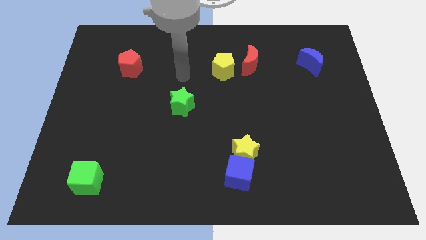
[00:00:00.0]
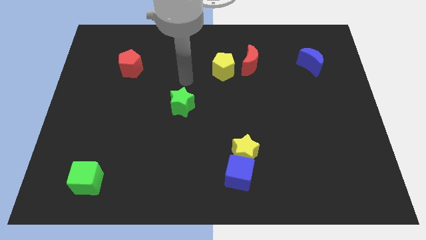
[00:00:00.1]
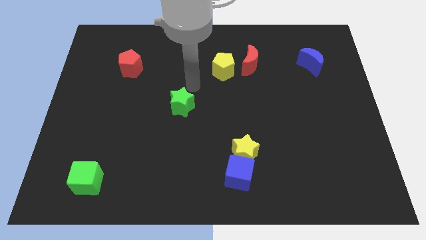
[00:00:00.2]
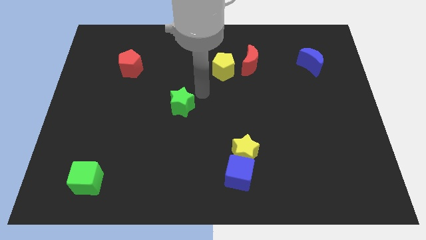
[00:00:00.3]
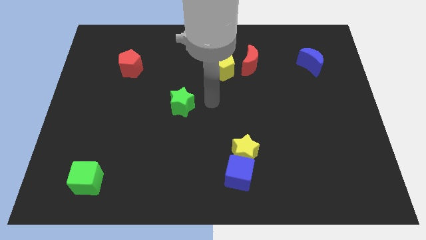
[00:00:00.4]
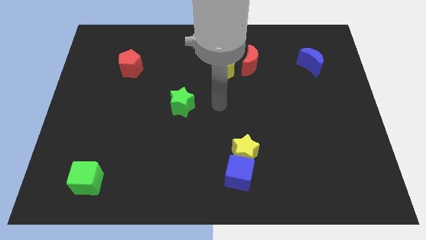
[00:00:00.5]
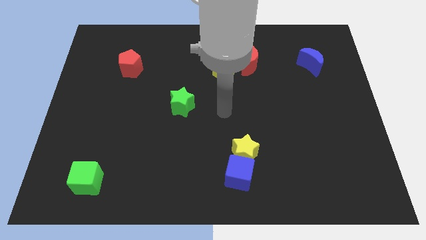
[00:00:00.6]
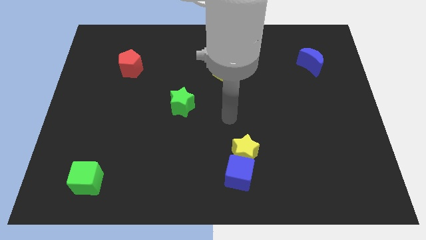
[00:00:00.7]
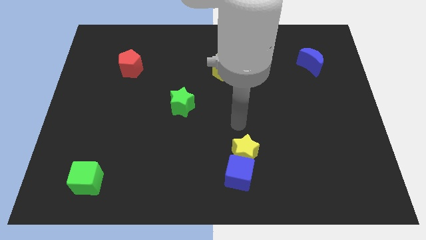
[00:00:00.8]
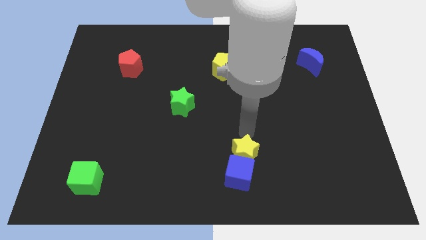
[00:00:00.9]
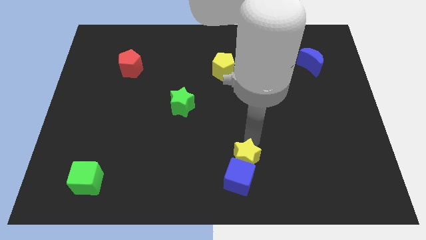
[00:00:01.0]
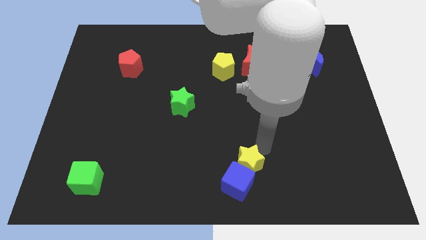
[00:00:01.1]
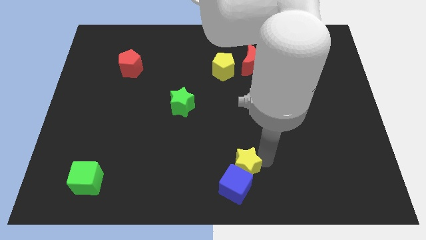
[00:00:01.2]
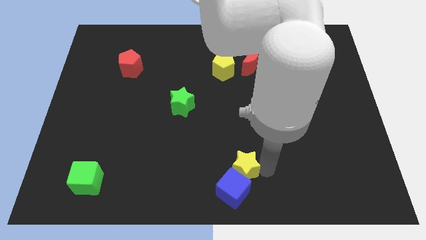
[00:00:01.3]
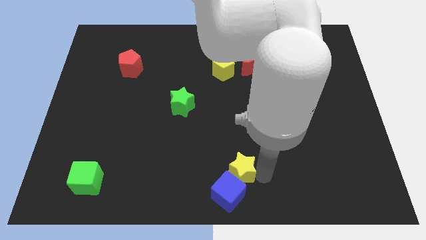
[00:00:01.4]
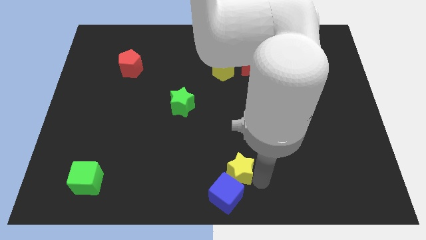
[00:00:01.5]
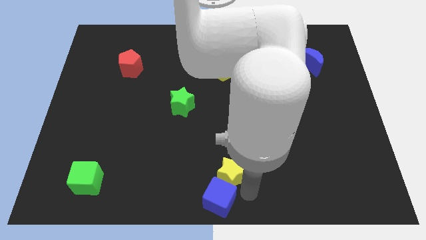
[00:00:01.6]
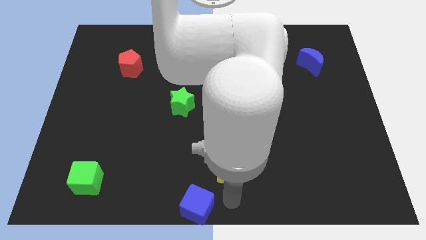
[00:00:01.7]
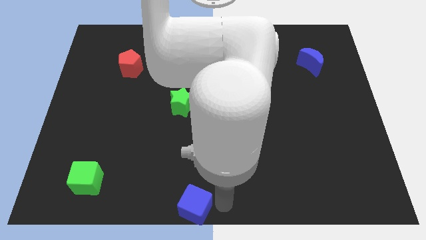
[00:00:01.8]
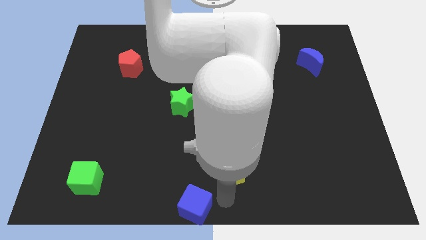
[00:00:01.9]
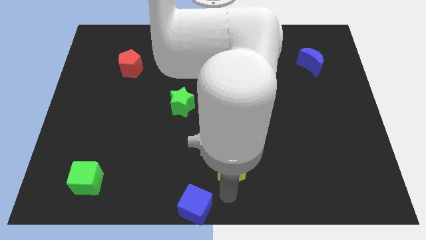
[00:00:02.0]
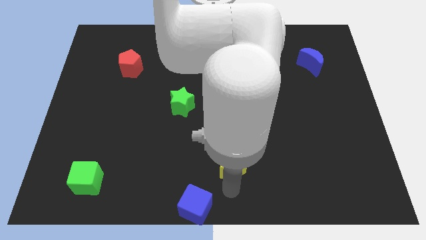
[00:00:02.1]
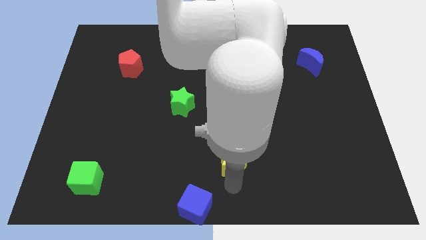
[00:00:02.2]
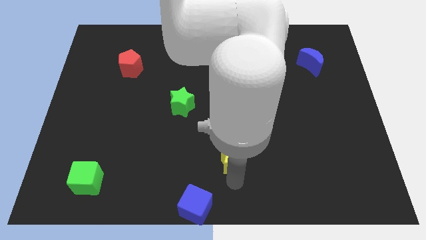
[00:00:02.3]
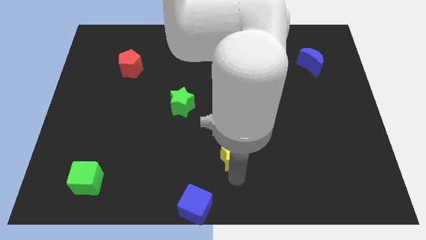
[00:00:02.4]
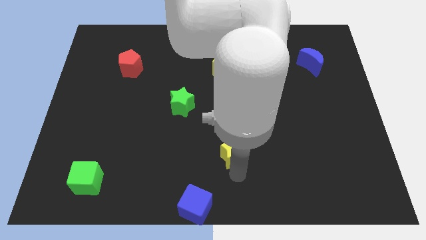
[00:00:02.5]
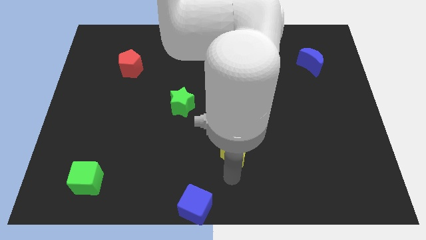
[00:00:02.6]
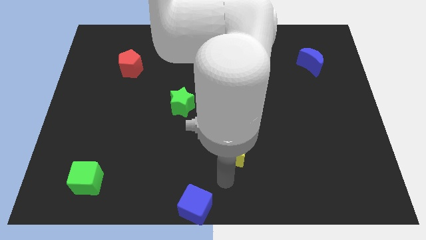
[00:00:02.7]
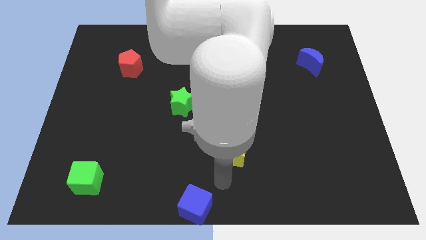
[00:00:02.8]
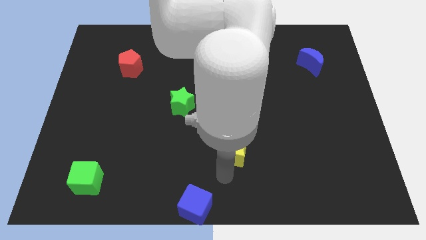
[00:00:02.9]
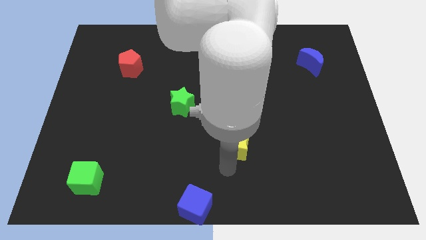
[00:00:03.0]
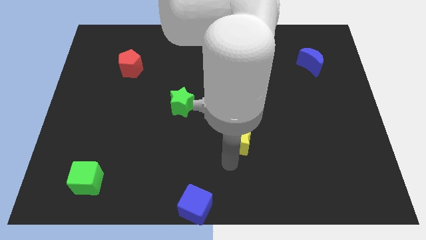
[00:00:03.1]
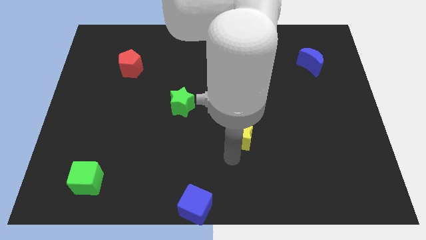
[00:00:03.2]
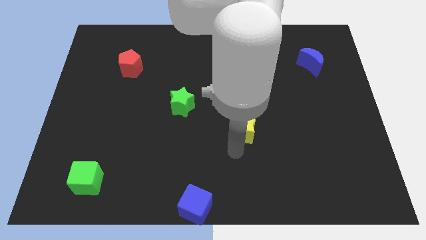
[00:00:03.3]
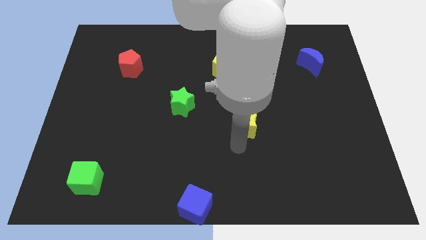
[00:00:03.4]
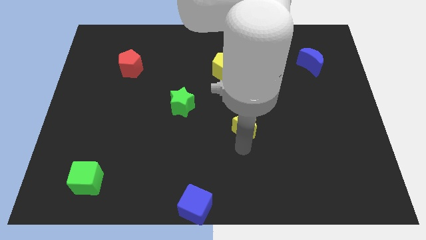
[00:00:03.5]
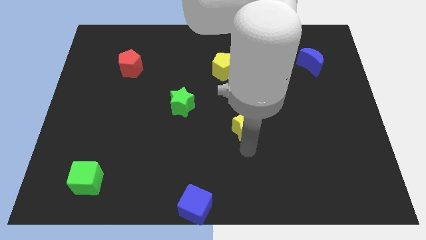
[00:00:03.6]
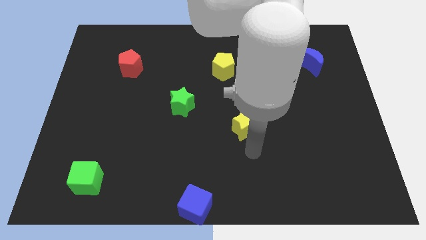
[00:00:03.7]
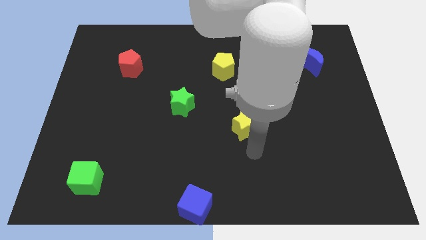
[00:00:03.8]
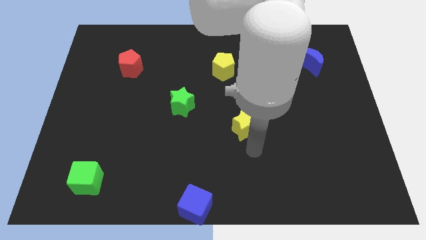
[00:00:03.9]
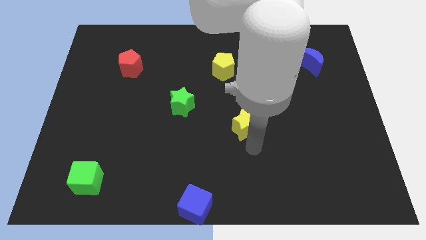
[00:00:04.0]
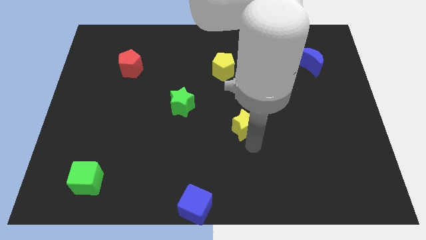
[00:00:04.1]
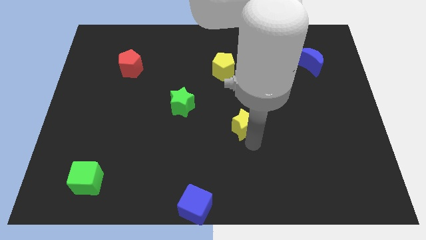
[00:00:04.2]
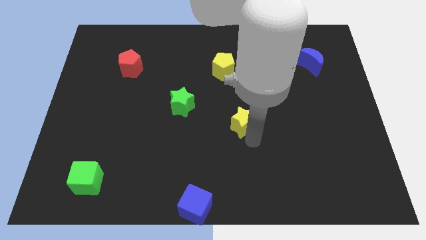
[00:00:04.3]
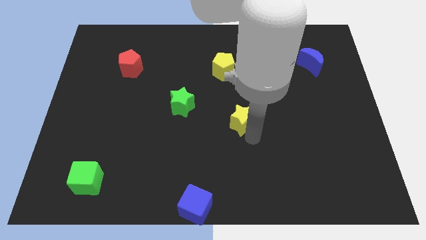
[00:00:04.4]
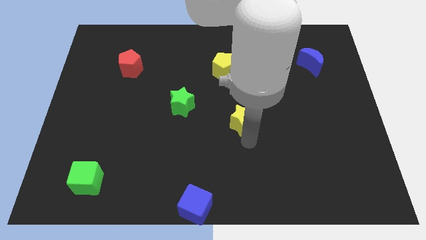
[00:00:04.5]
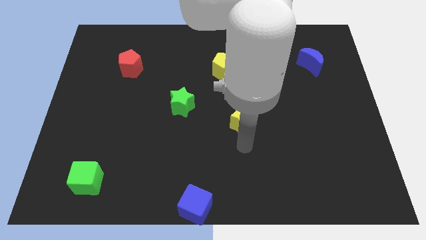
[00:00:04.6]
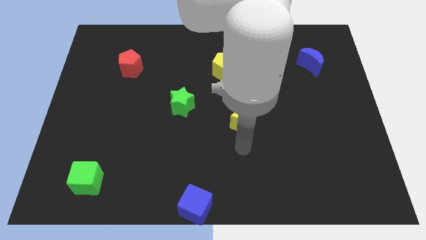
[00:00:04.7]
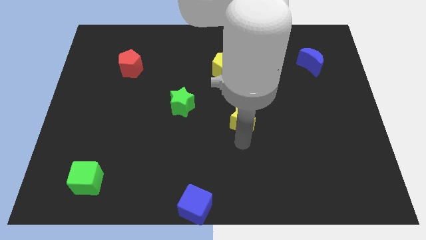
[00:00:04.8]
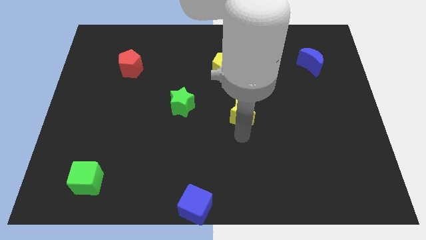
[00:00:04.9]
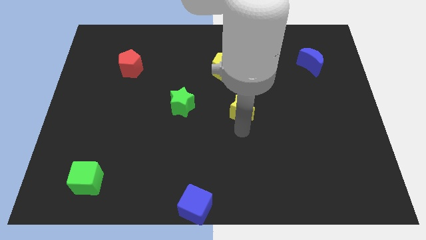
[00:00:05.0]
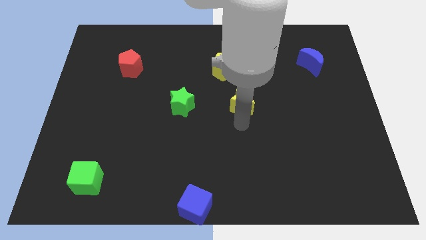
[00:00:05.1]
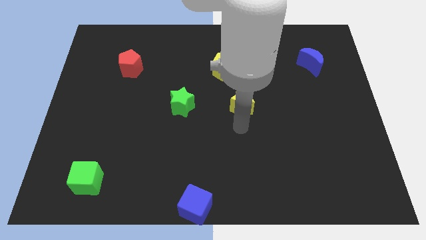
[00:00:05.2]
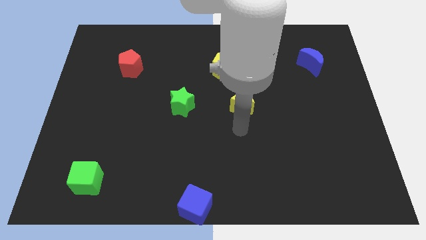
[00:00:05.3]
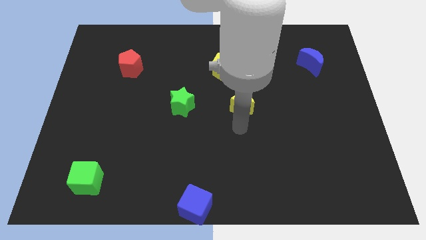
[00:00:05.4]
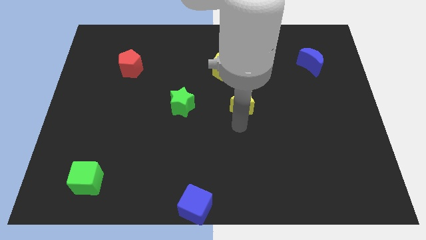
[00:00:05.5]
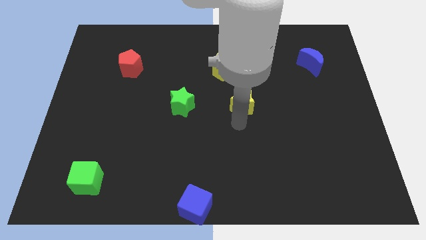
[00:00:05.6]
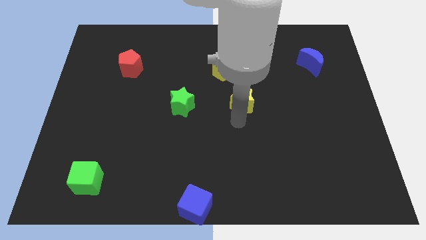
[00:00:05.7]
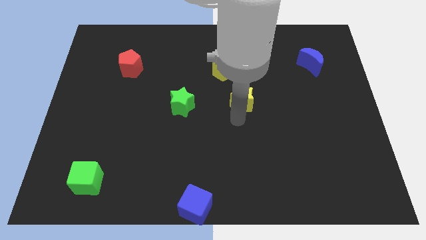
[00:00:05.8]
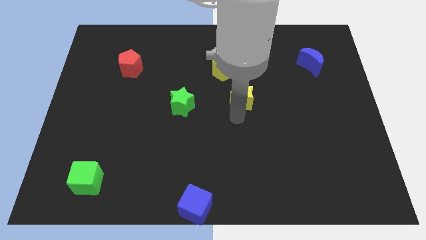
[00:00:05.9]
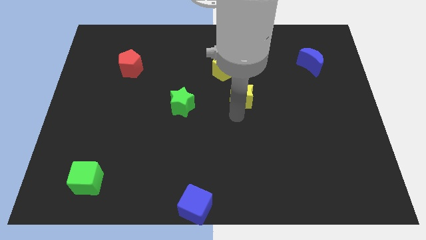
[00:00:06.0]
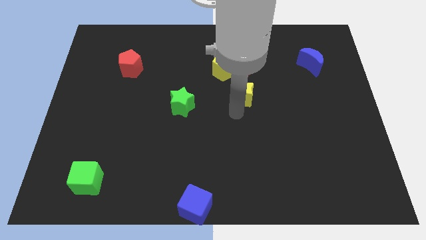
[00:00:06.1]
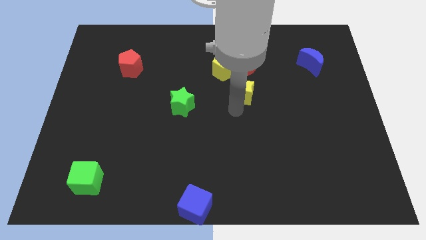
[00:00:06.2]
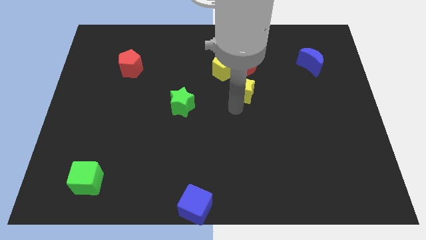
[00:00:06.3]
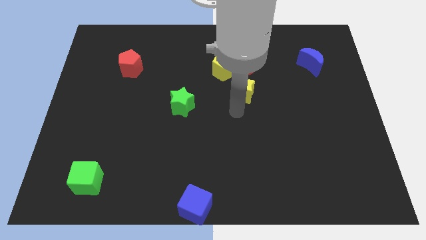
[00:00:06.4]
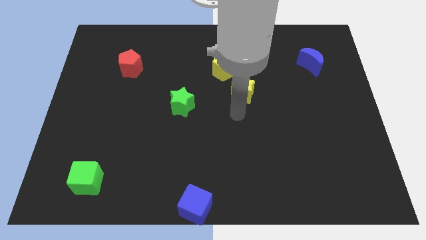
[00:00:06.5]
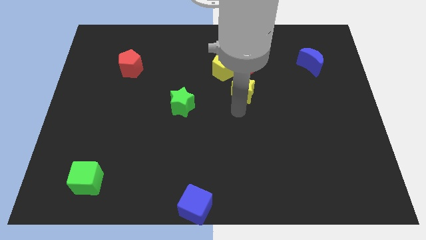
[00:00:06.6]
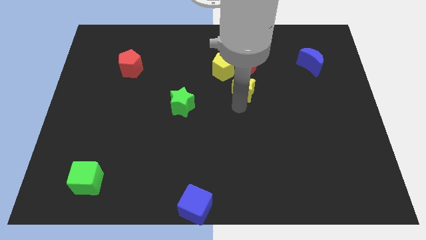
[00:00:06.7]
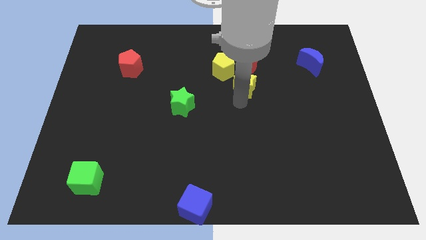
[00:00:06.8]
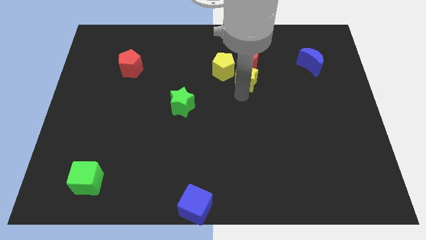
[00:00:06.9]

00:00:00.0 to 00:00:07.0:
move the yellow star towards the red moon

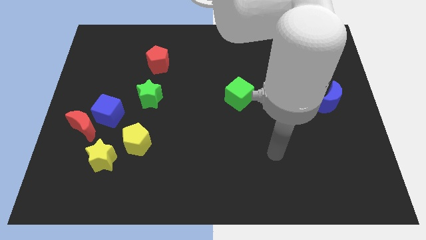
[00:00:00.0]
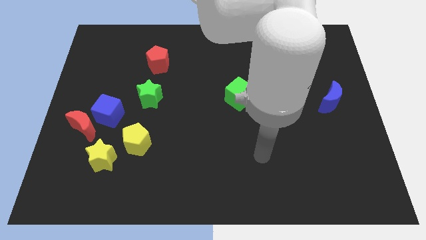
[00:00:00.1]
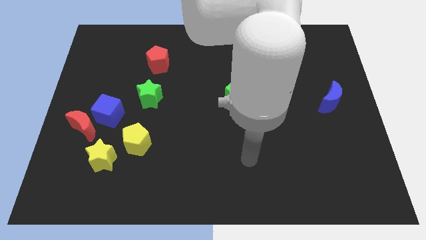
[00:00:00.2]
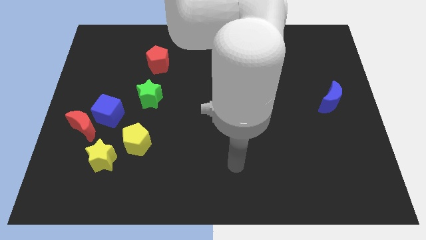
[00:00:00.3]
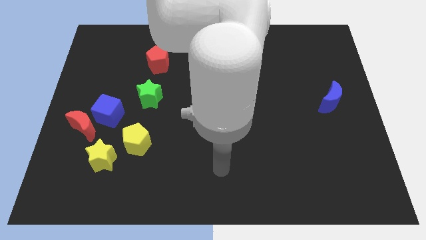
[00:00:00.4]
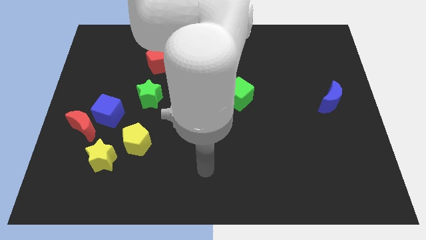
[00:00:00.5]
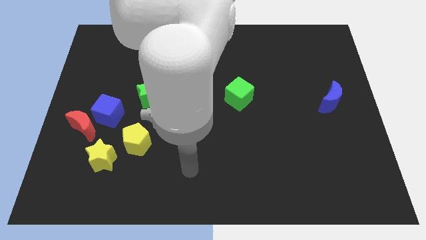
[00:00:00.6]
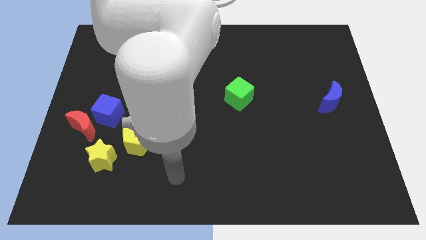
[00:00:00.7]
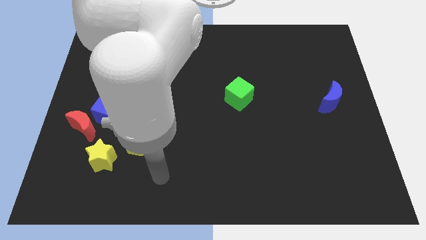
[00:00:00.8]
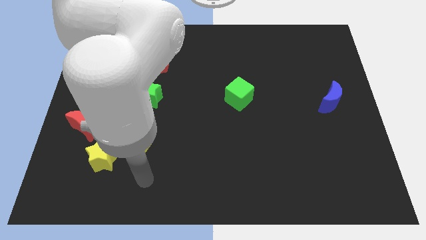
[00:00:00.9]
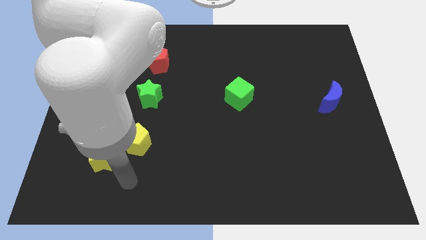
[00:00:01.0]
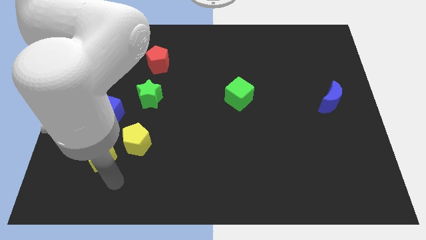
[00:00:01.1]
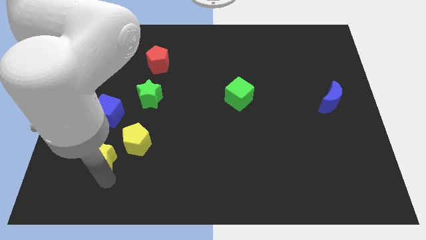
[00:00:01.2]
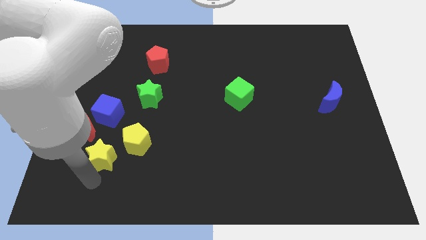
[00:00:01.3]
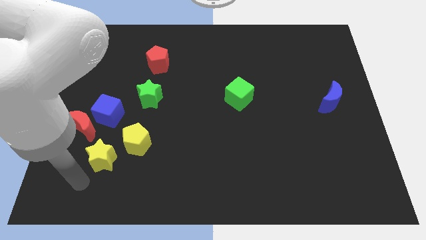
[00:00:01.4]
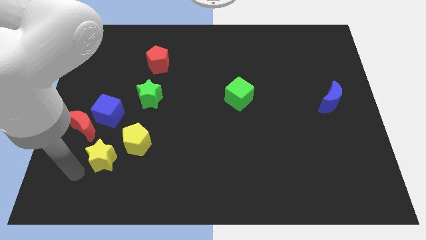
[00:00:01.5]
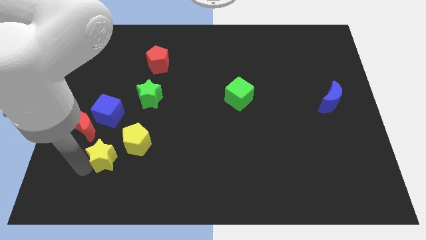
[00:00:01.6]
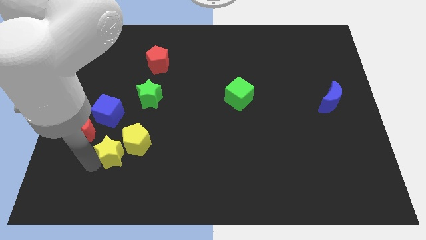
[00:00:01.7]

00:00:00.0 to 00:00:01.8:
put the yellow star to the yellow pentagon
